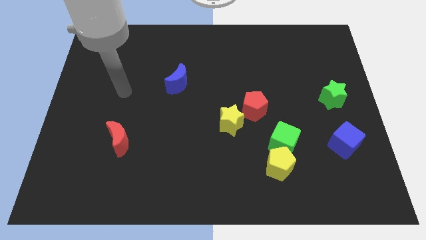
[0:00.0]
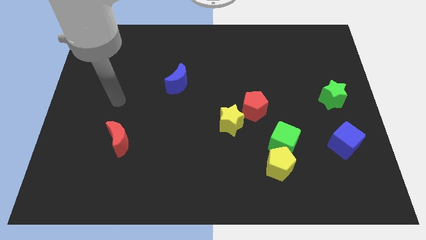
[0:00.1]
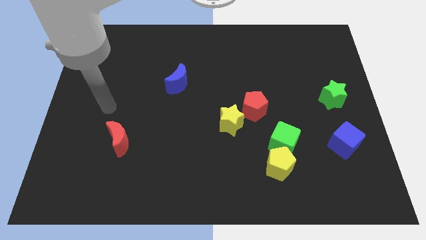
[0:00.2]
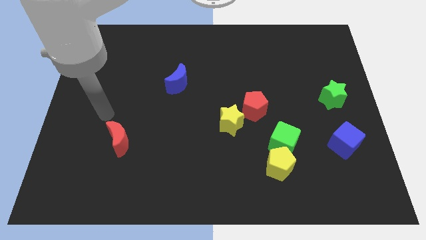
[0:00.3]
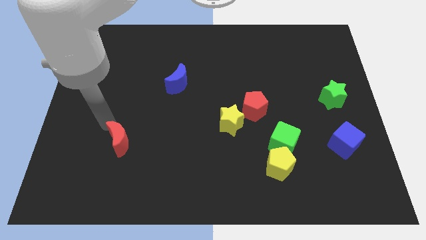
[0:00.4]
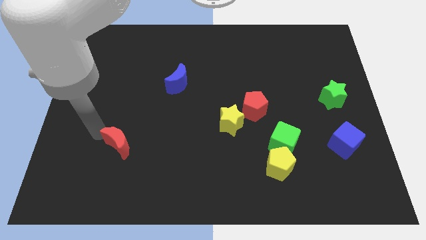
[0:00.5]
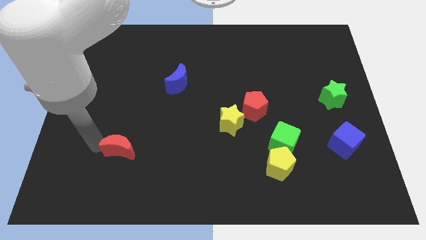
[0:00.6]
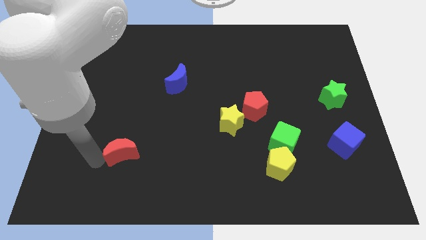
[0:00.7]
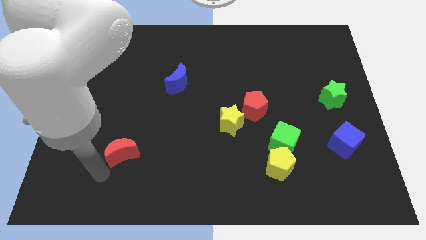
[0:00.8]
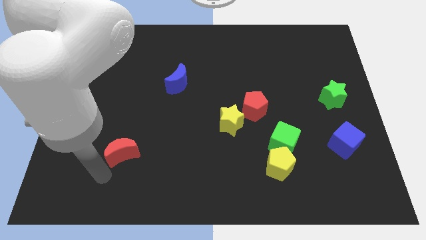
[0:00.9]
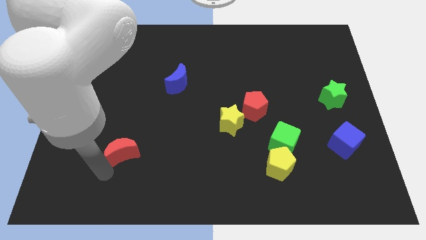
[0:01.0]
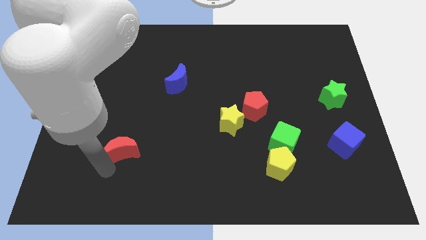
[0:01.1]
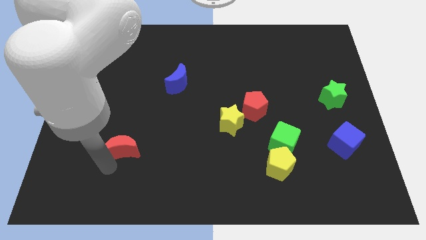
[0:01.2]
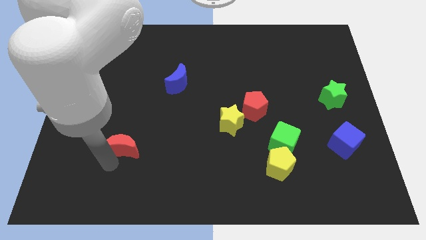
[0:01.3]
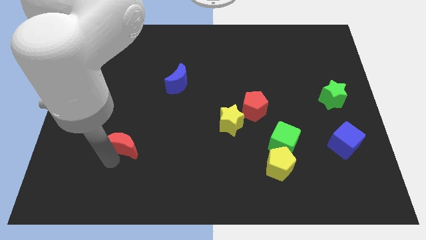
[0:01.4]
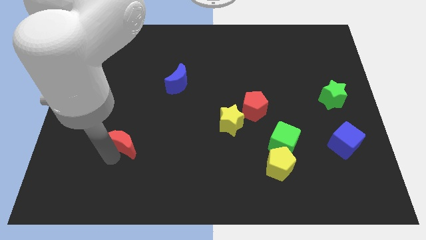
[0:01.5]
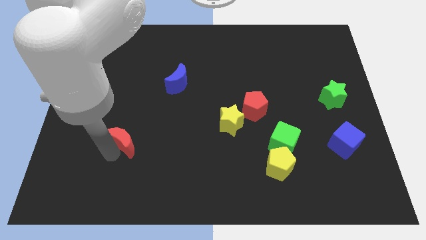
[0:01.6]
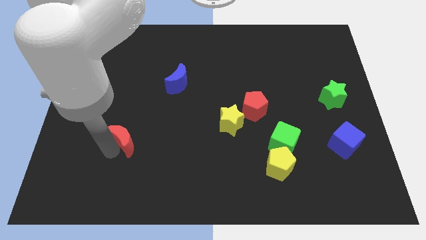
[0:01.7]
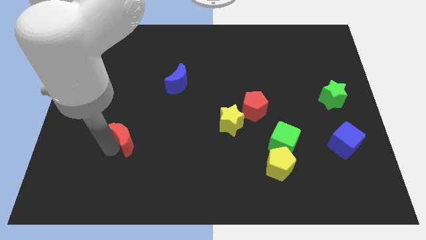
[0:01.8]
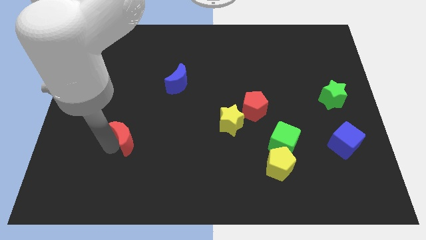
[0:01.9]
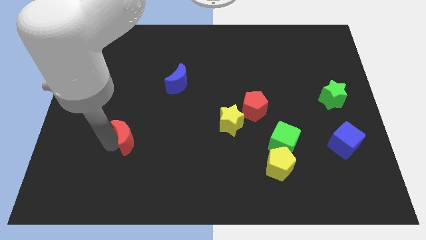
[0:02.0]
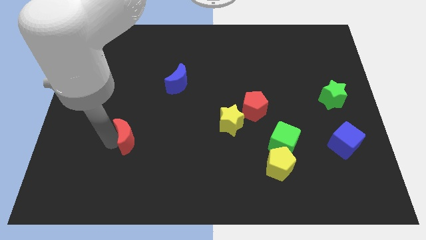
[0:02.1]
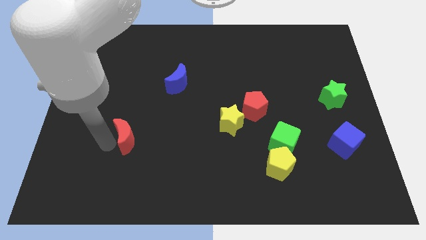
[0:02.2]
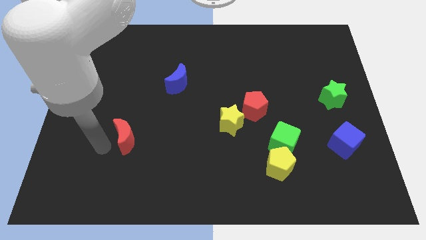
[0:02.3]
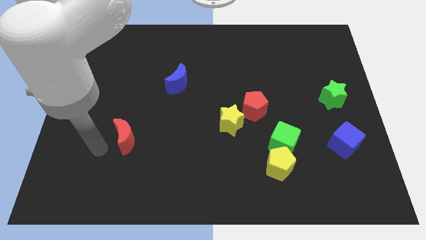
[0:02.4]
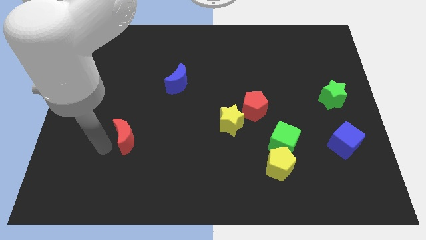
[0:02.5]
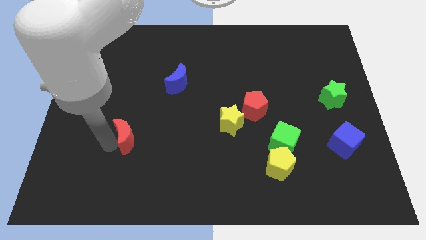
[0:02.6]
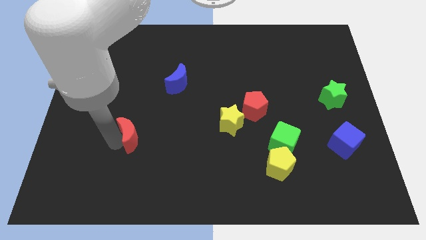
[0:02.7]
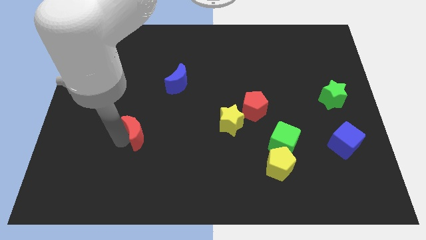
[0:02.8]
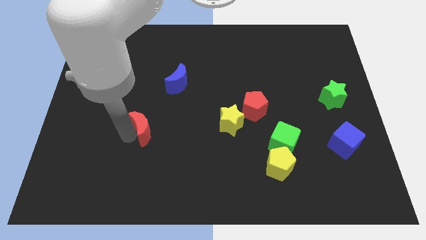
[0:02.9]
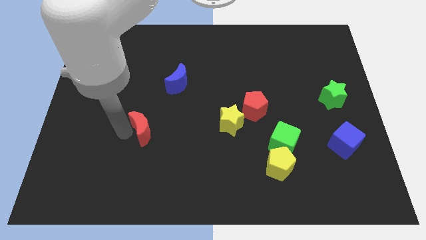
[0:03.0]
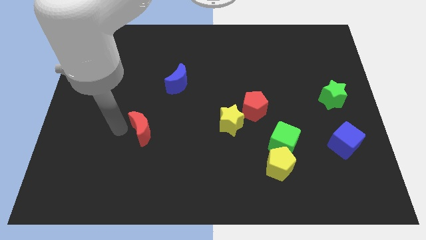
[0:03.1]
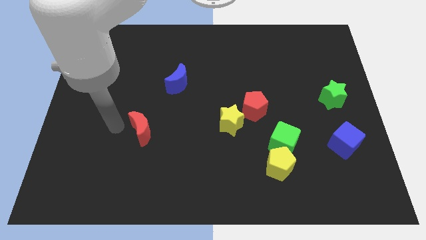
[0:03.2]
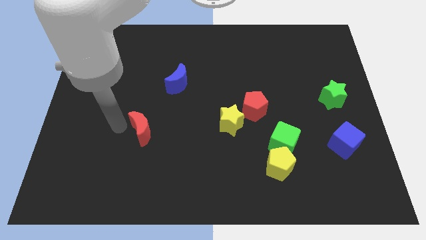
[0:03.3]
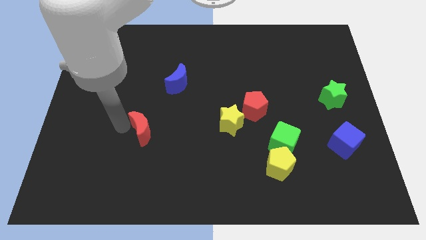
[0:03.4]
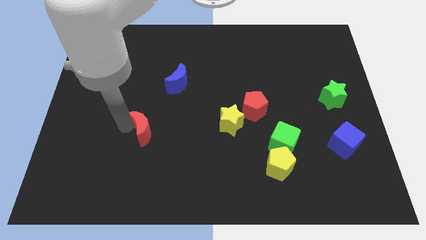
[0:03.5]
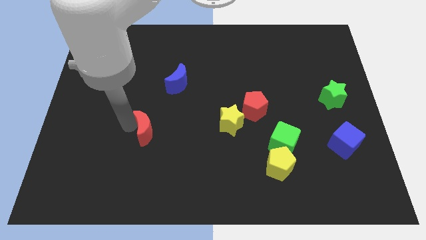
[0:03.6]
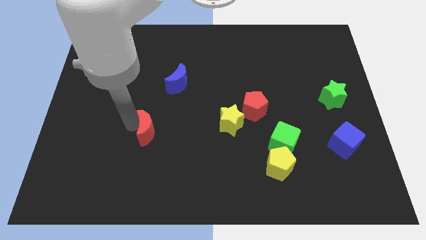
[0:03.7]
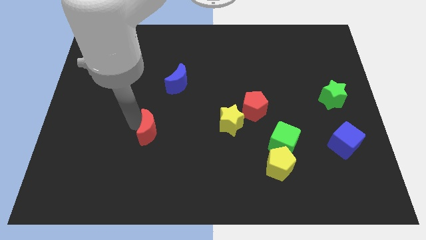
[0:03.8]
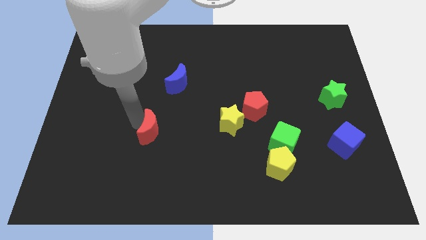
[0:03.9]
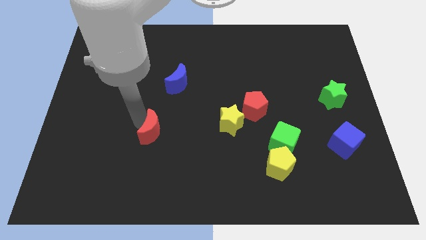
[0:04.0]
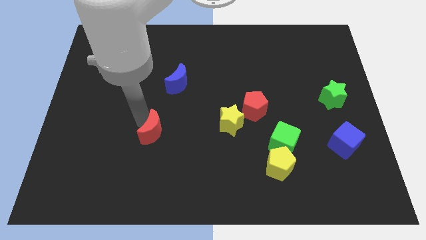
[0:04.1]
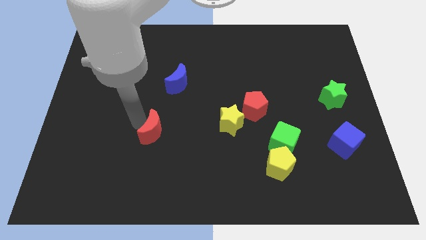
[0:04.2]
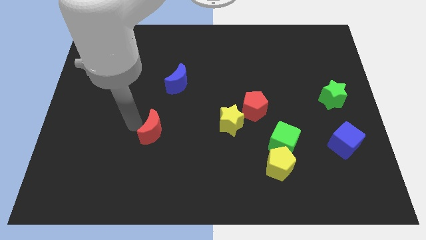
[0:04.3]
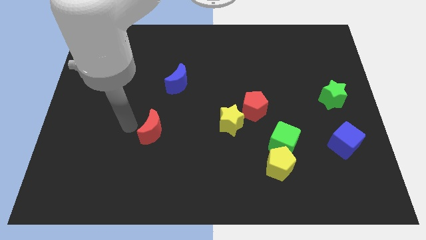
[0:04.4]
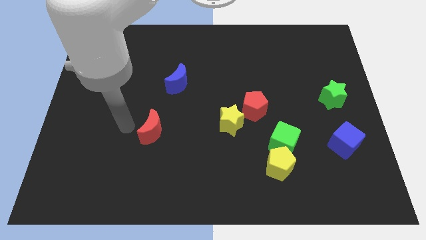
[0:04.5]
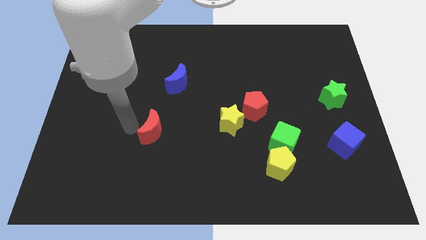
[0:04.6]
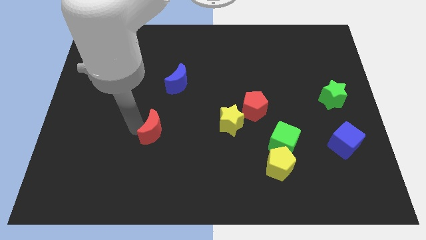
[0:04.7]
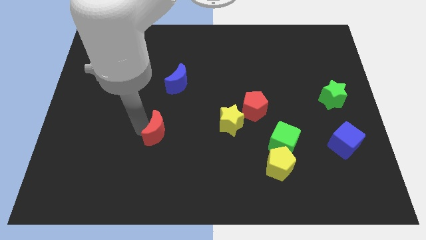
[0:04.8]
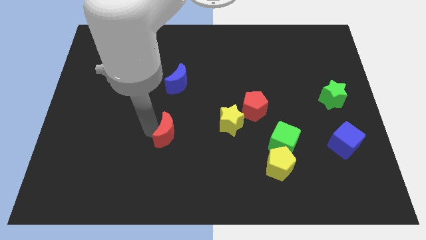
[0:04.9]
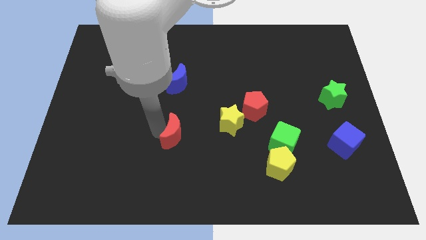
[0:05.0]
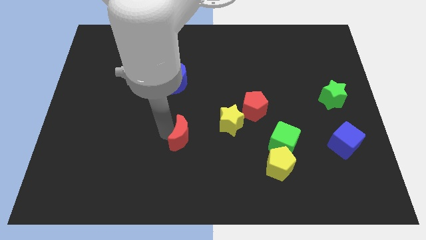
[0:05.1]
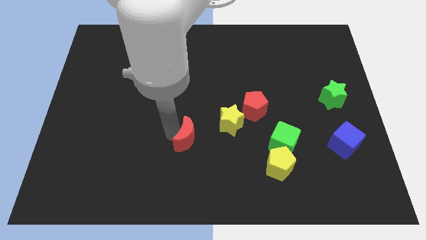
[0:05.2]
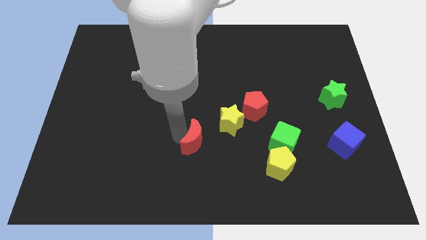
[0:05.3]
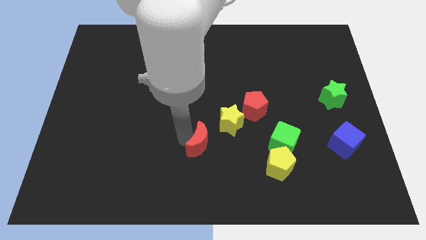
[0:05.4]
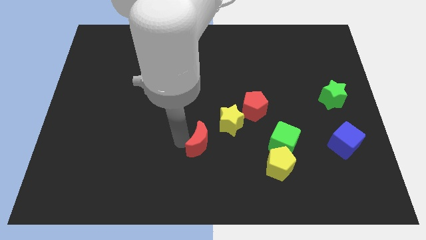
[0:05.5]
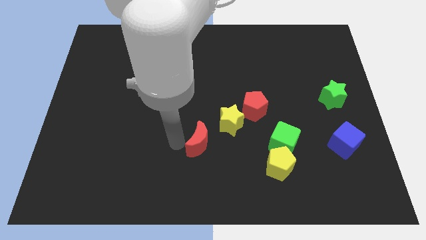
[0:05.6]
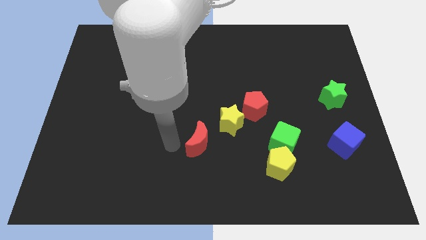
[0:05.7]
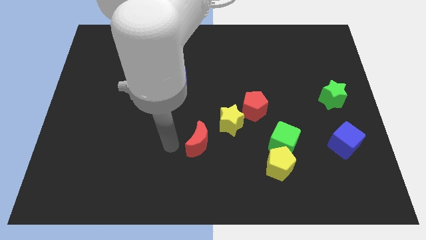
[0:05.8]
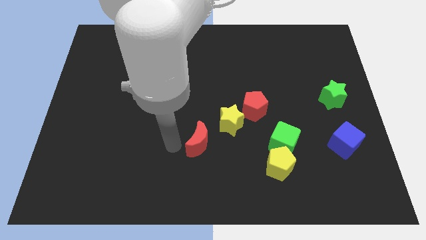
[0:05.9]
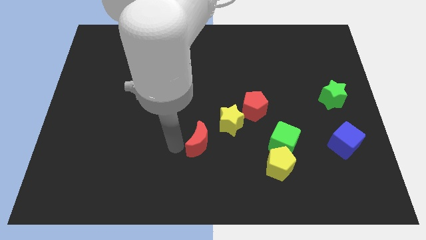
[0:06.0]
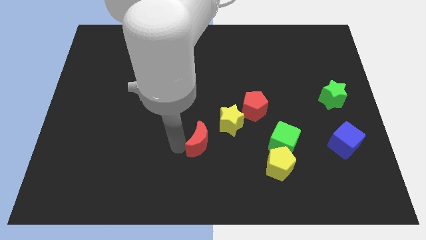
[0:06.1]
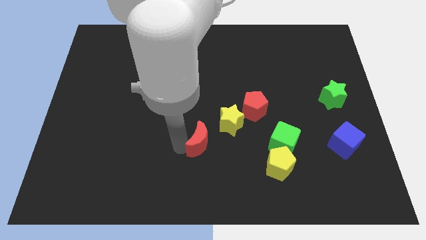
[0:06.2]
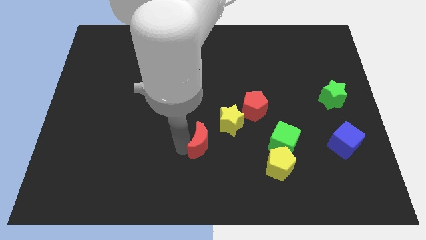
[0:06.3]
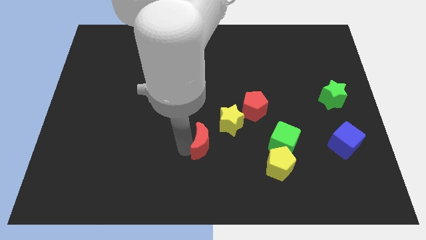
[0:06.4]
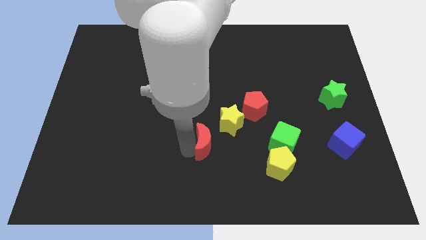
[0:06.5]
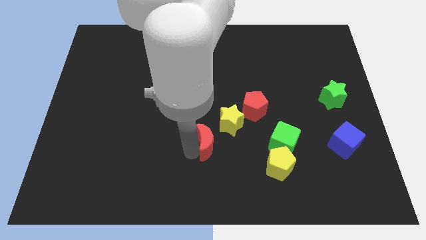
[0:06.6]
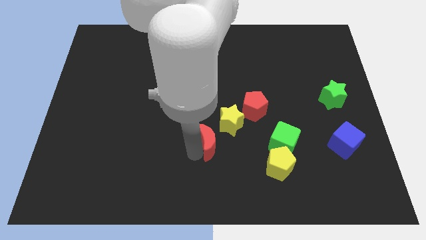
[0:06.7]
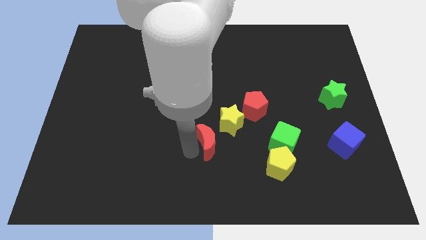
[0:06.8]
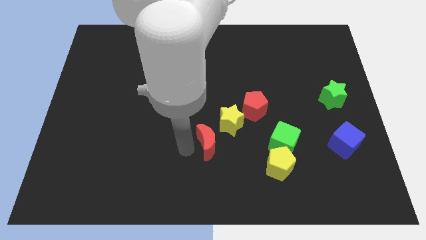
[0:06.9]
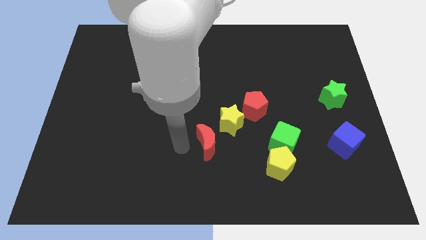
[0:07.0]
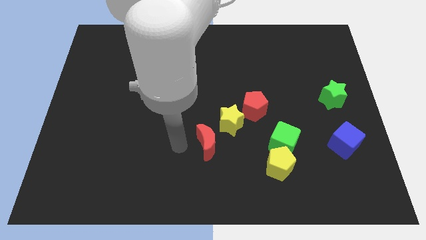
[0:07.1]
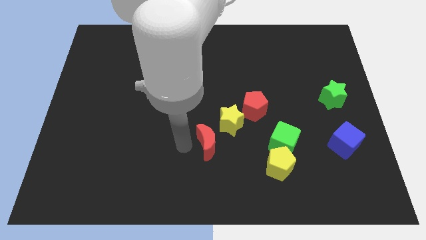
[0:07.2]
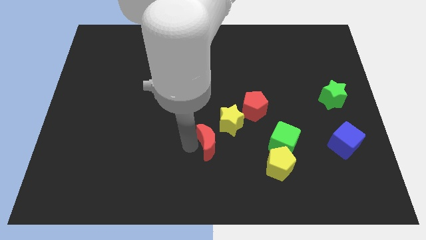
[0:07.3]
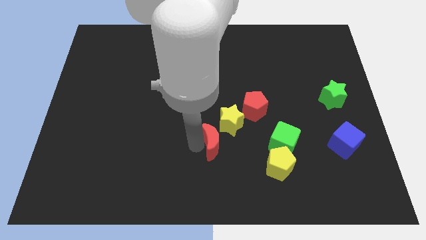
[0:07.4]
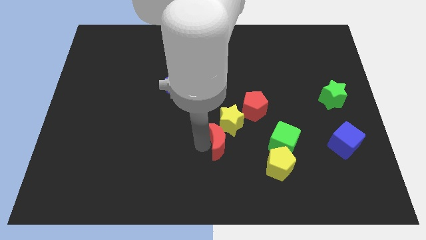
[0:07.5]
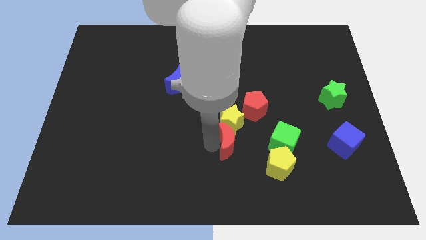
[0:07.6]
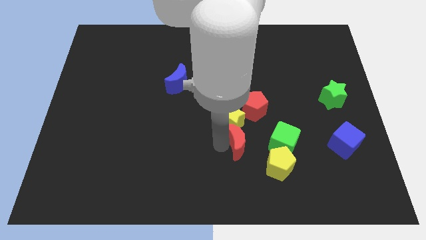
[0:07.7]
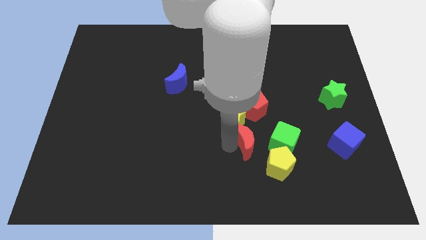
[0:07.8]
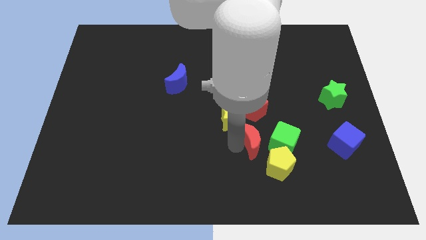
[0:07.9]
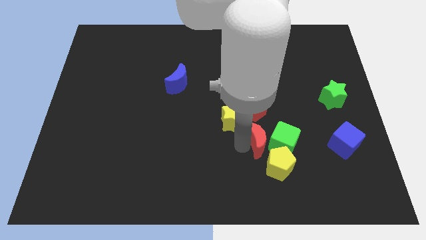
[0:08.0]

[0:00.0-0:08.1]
slide the red moon towards the green cube
